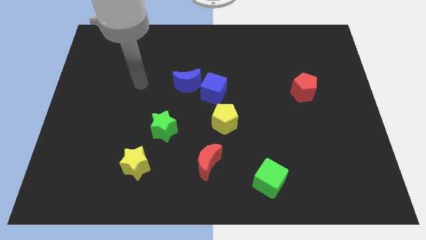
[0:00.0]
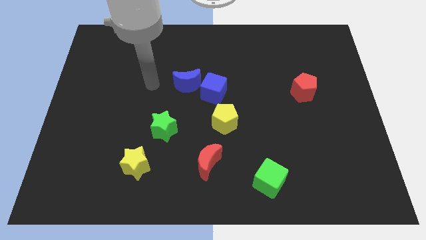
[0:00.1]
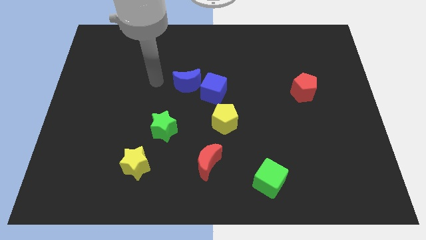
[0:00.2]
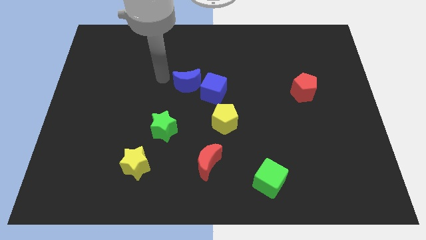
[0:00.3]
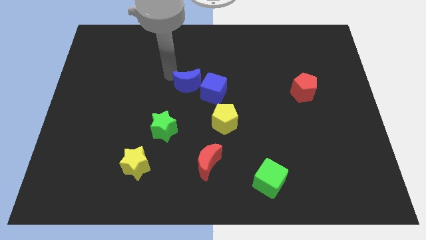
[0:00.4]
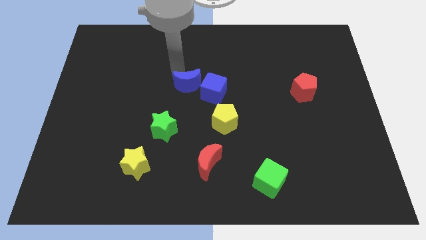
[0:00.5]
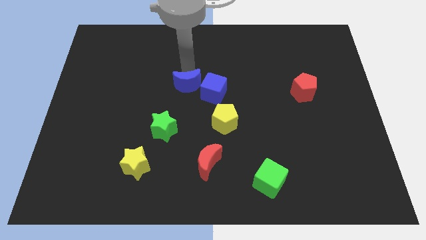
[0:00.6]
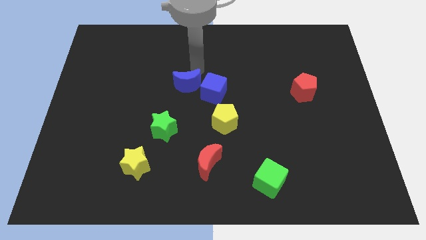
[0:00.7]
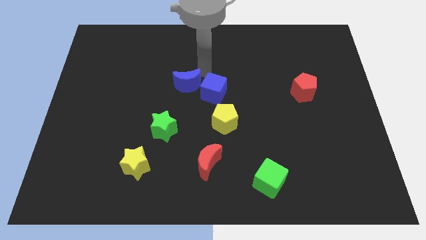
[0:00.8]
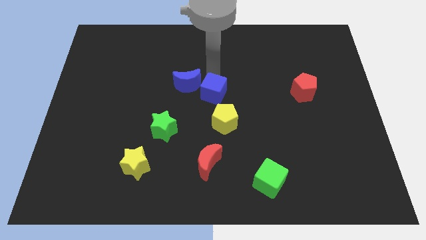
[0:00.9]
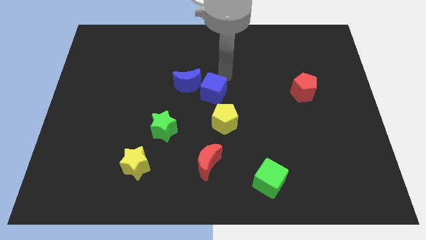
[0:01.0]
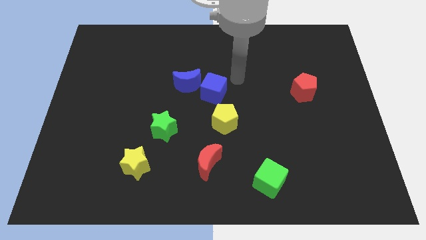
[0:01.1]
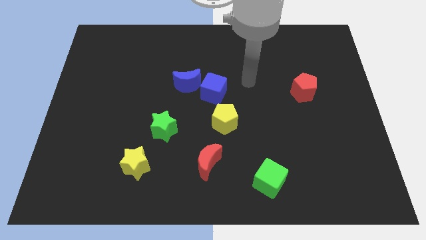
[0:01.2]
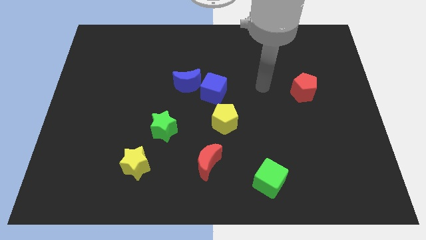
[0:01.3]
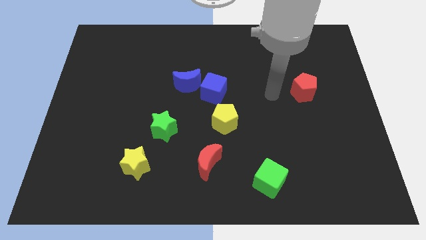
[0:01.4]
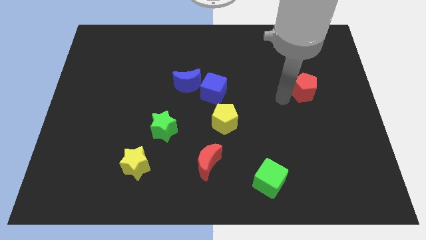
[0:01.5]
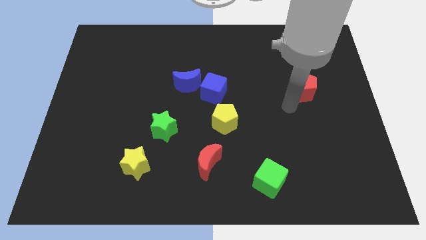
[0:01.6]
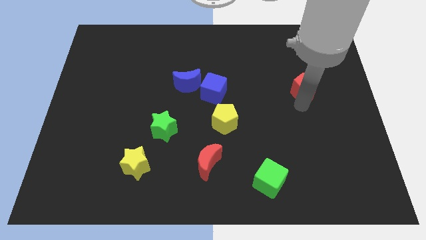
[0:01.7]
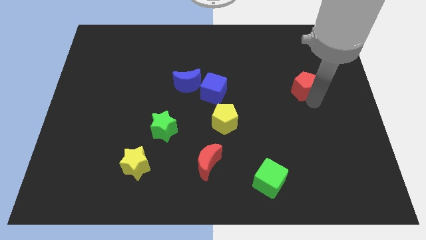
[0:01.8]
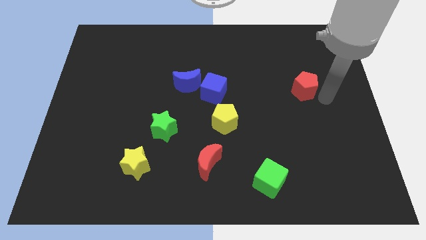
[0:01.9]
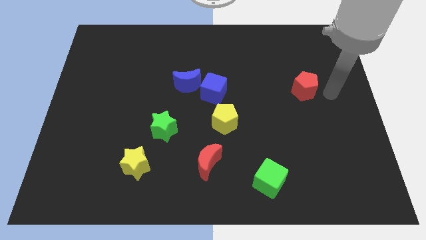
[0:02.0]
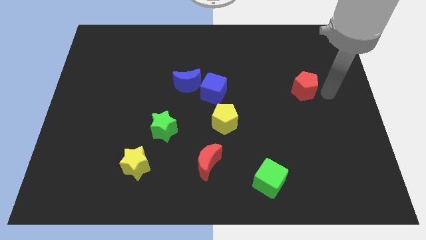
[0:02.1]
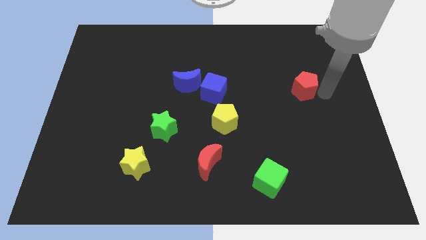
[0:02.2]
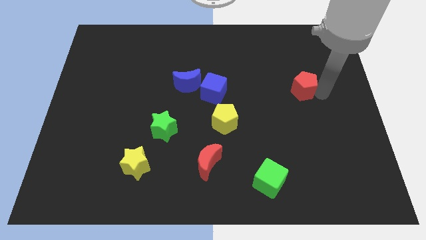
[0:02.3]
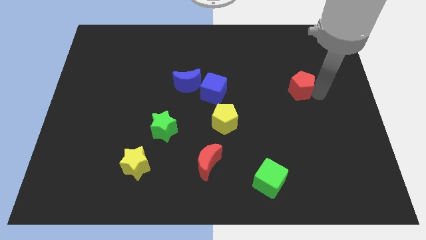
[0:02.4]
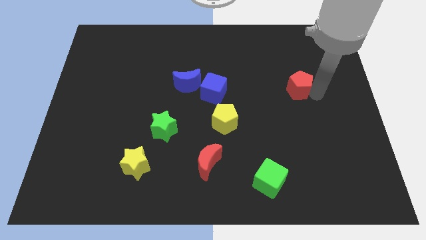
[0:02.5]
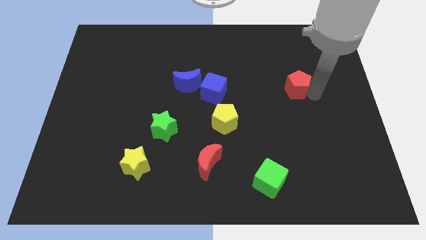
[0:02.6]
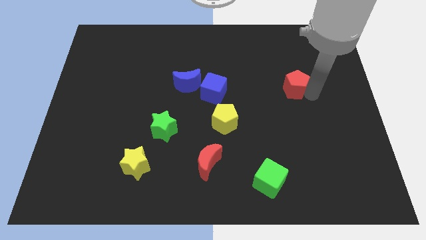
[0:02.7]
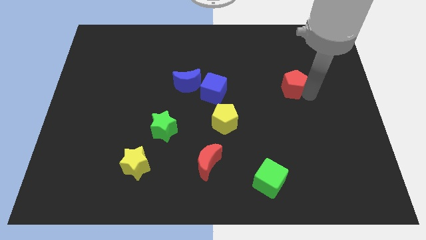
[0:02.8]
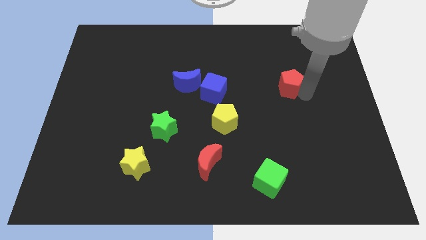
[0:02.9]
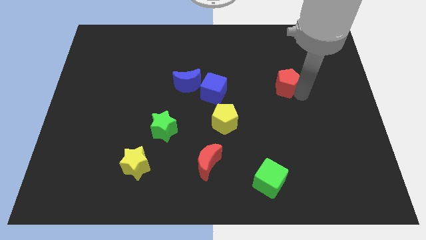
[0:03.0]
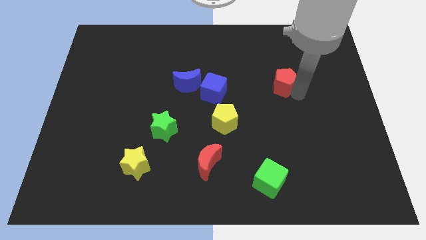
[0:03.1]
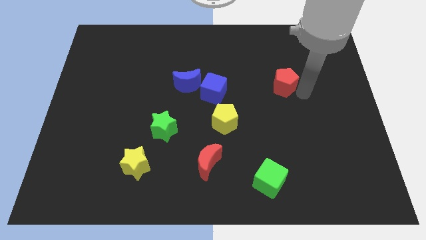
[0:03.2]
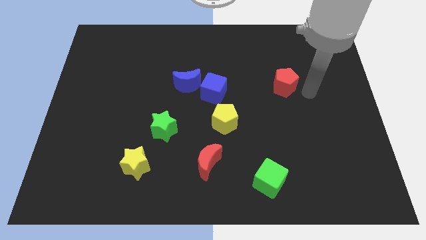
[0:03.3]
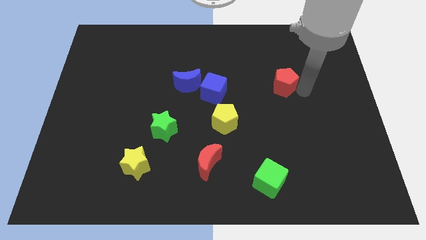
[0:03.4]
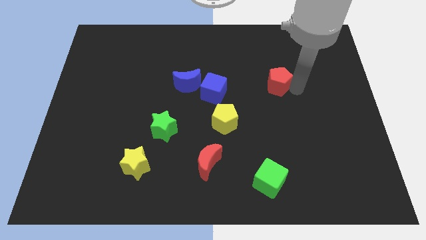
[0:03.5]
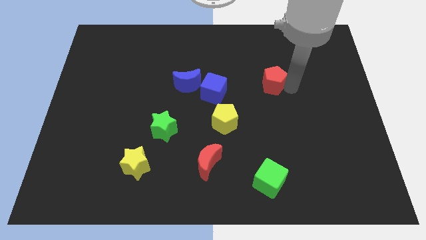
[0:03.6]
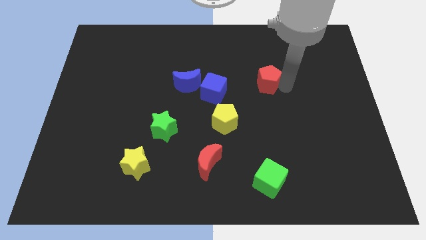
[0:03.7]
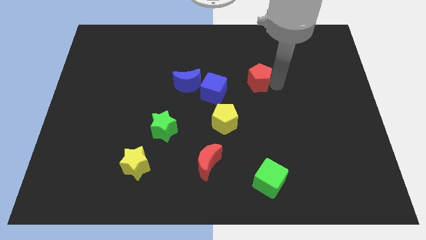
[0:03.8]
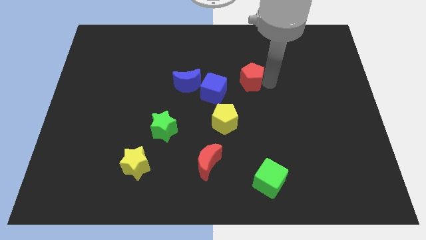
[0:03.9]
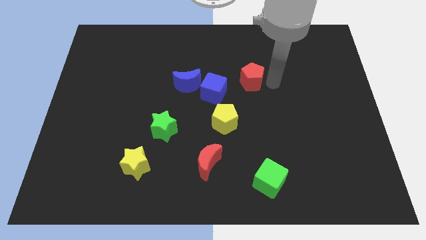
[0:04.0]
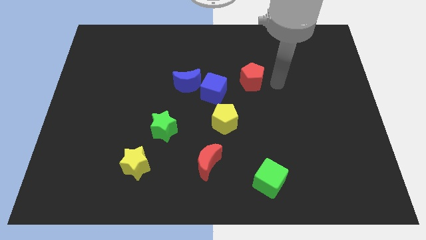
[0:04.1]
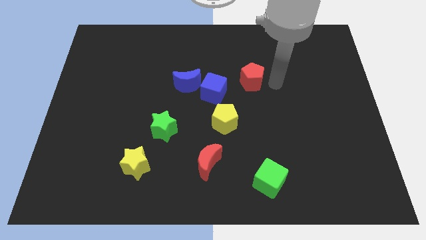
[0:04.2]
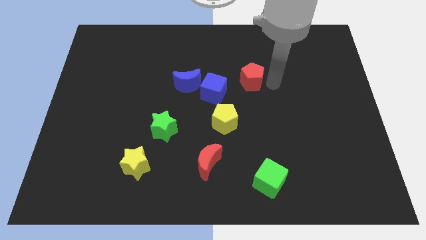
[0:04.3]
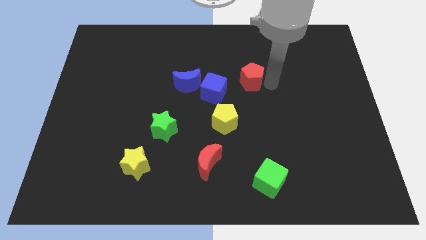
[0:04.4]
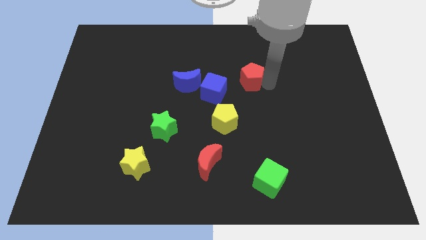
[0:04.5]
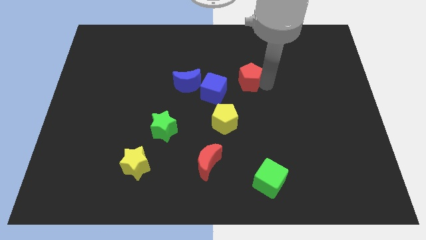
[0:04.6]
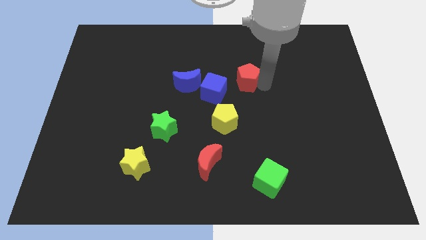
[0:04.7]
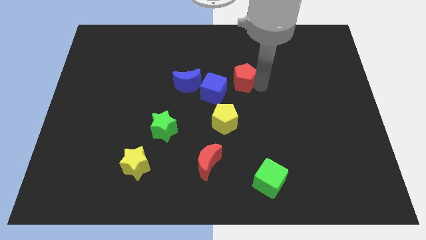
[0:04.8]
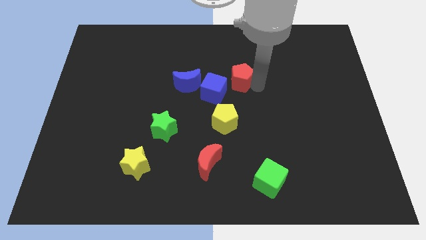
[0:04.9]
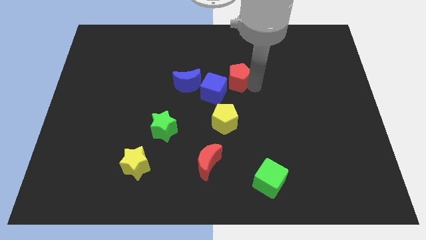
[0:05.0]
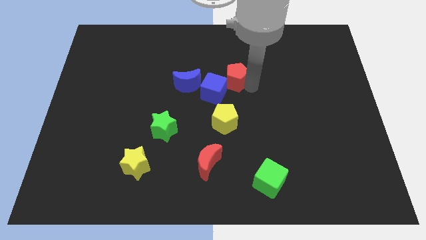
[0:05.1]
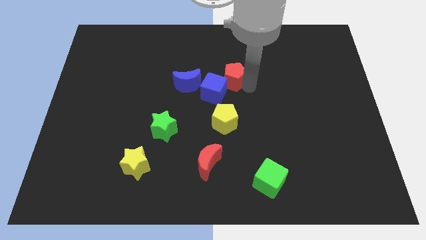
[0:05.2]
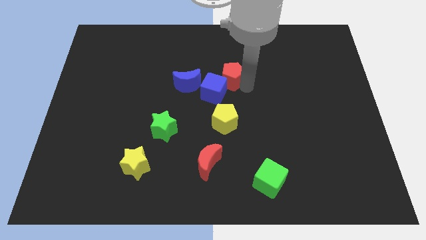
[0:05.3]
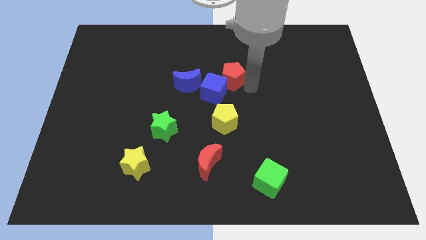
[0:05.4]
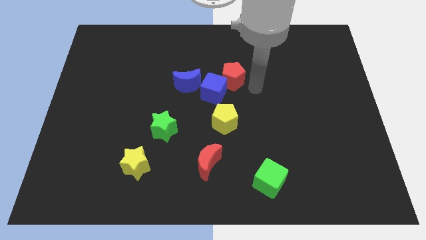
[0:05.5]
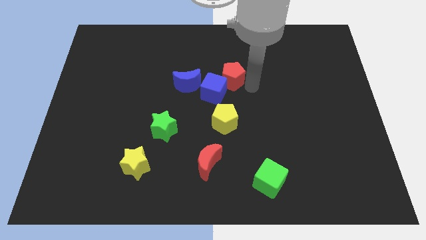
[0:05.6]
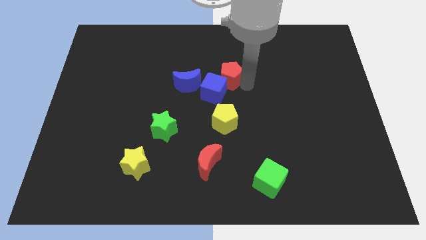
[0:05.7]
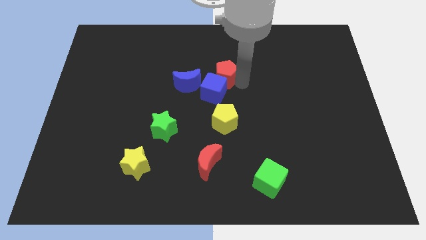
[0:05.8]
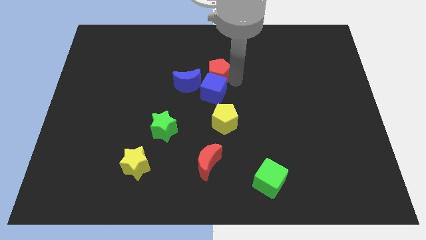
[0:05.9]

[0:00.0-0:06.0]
slide the red pentagon to the left

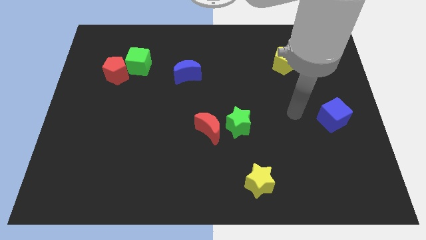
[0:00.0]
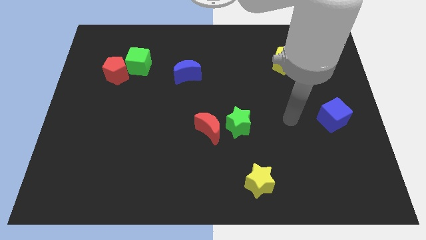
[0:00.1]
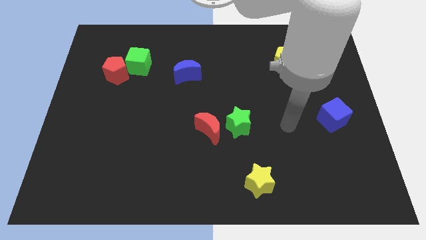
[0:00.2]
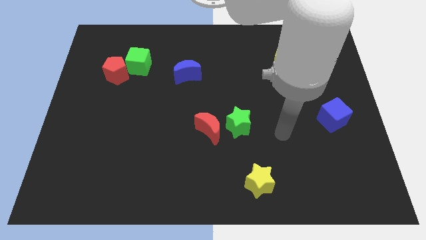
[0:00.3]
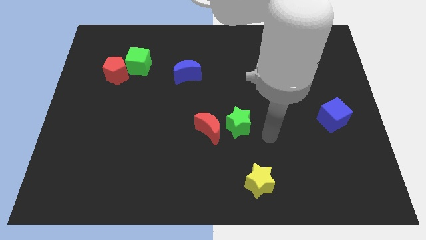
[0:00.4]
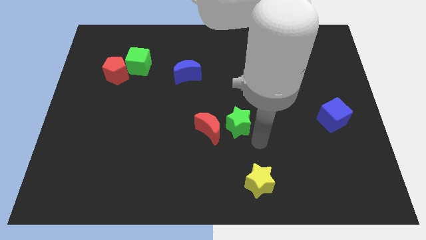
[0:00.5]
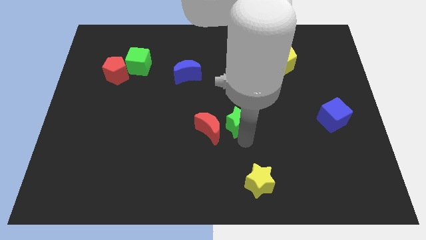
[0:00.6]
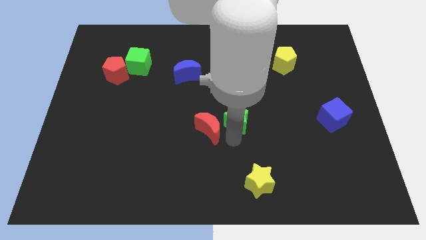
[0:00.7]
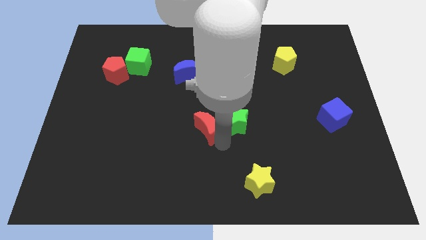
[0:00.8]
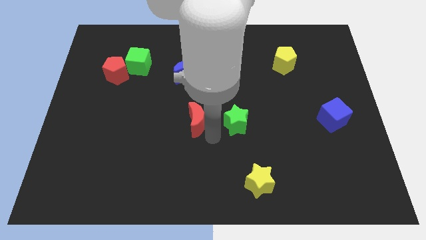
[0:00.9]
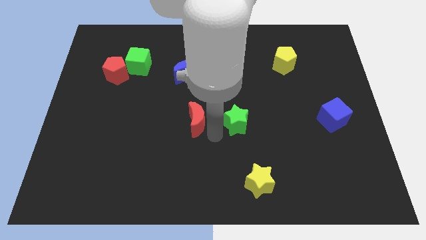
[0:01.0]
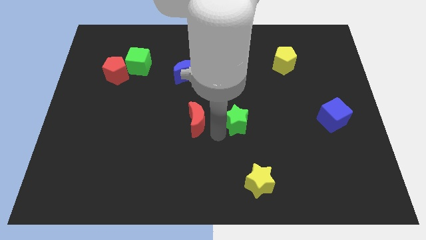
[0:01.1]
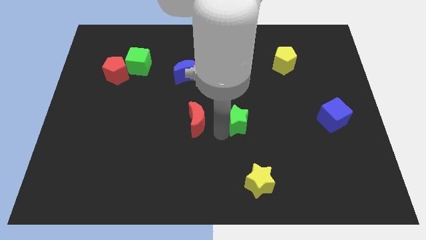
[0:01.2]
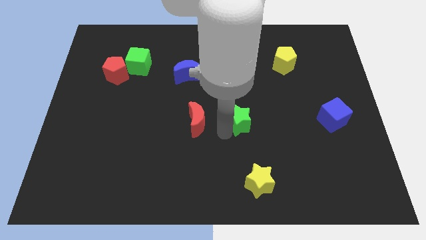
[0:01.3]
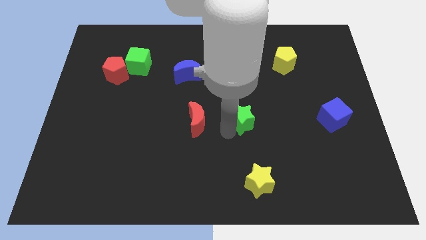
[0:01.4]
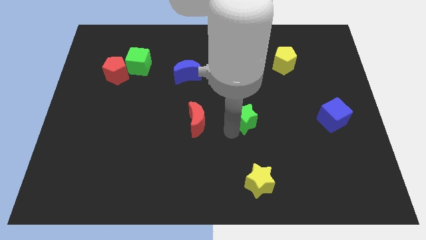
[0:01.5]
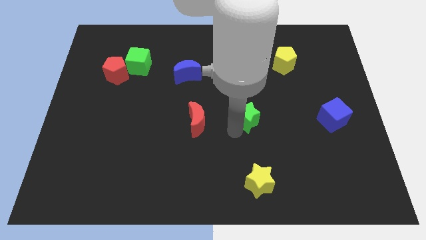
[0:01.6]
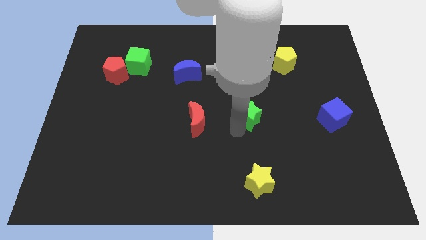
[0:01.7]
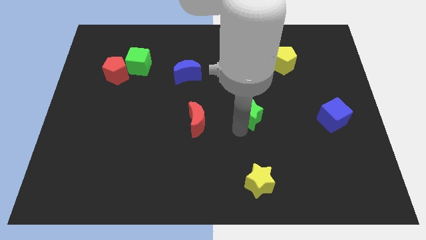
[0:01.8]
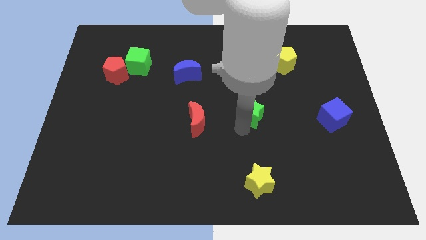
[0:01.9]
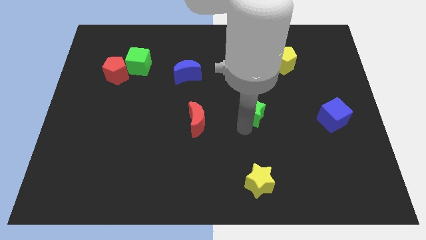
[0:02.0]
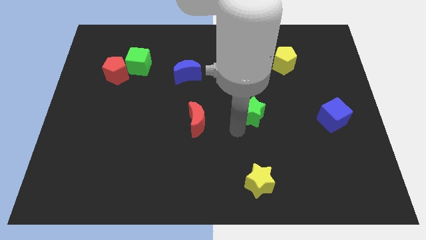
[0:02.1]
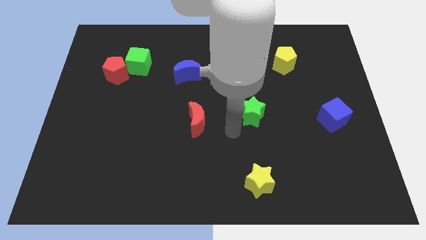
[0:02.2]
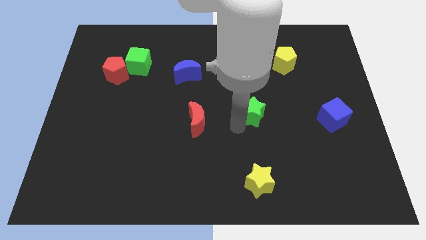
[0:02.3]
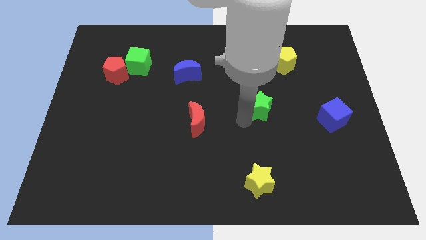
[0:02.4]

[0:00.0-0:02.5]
slightly push the green star diagonally upwards and right
